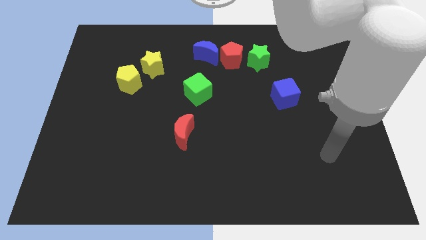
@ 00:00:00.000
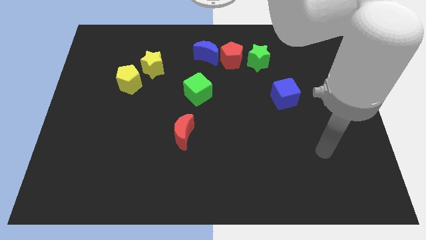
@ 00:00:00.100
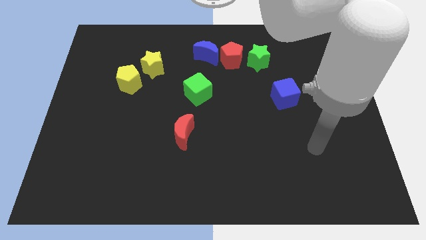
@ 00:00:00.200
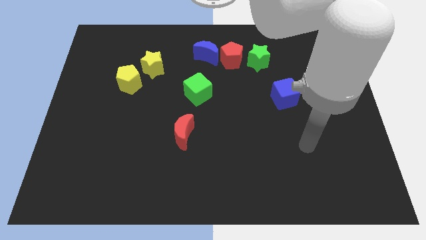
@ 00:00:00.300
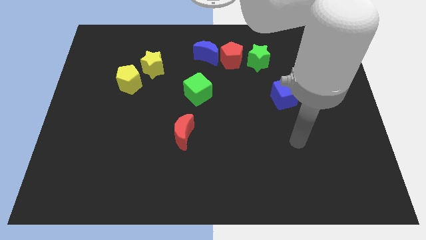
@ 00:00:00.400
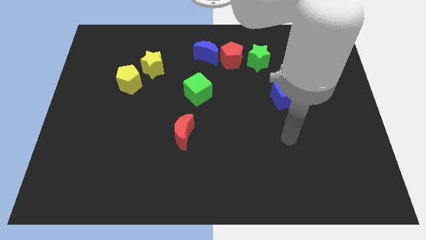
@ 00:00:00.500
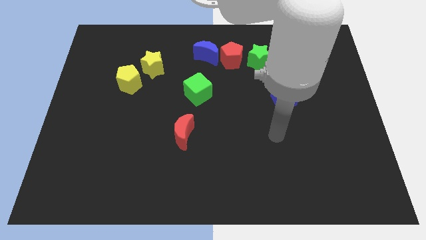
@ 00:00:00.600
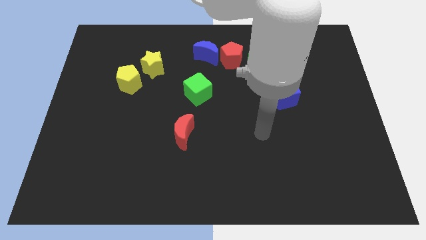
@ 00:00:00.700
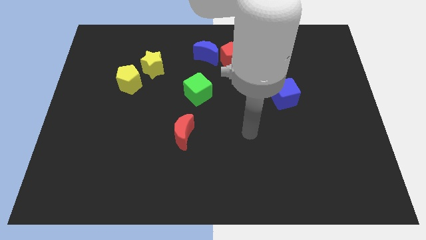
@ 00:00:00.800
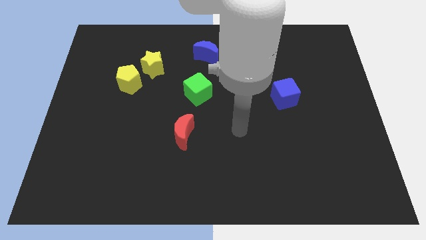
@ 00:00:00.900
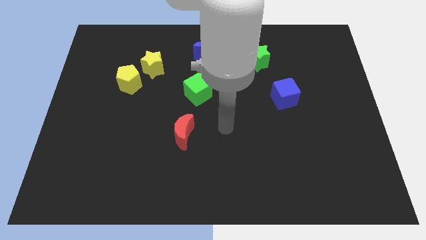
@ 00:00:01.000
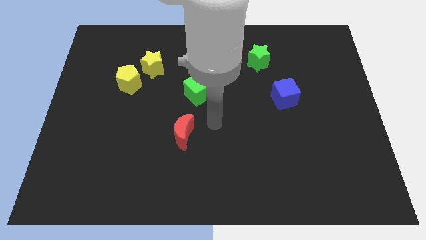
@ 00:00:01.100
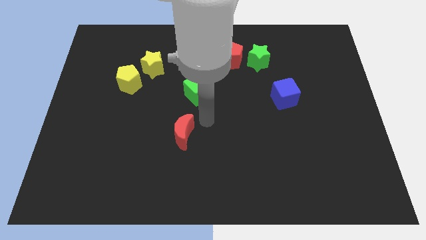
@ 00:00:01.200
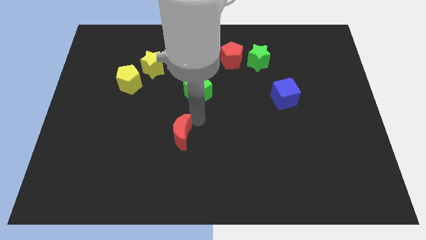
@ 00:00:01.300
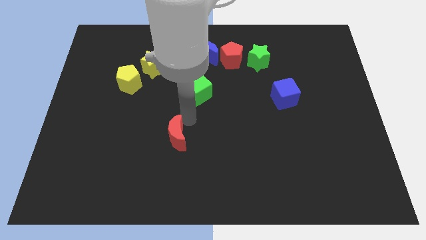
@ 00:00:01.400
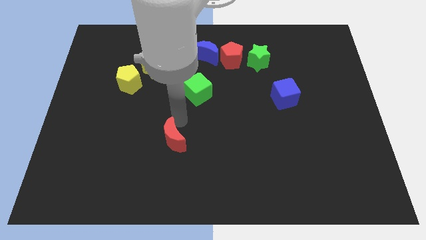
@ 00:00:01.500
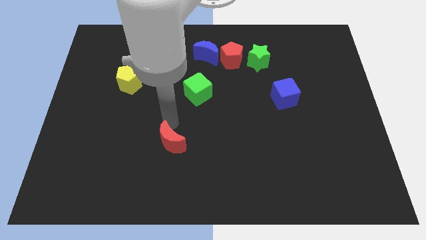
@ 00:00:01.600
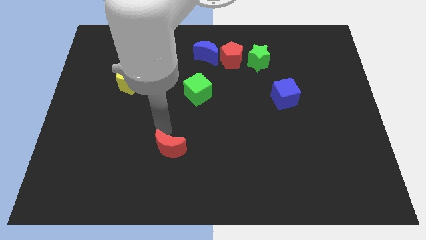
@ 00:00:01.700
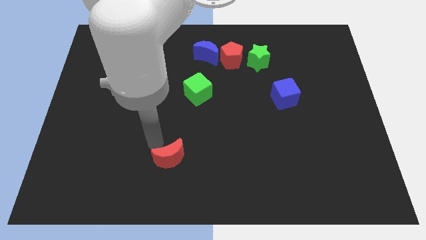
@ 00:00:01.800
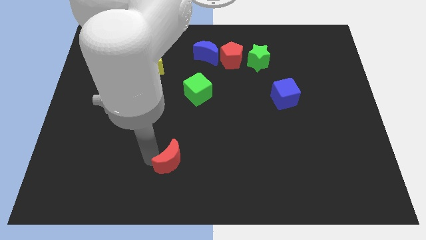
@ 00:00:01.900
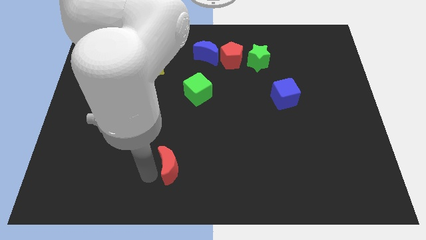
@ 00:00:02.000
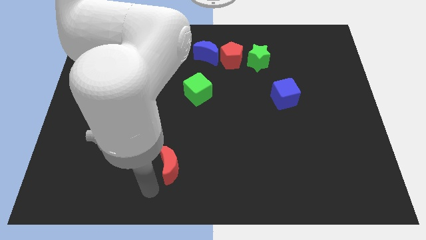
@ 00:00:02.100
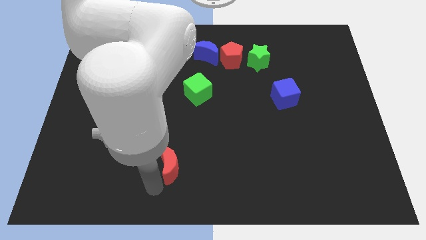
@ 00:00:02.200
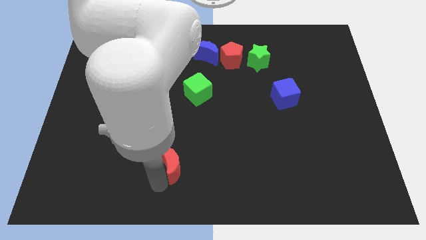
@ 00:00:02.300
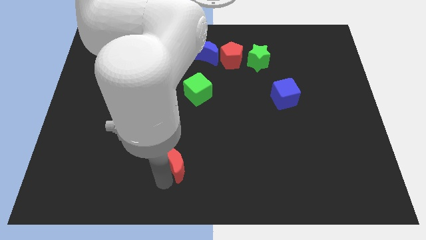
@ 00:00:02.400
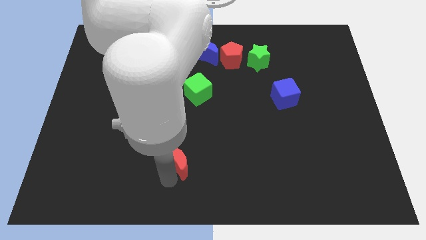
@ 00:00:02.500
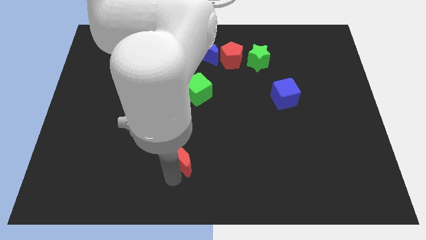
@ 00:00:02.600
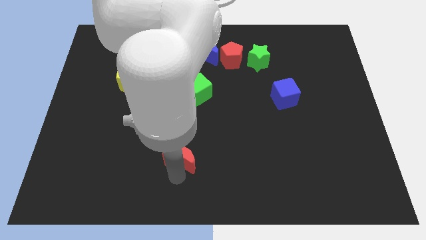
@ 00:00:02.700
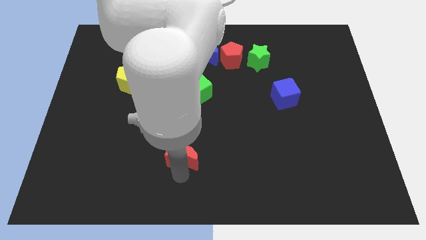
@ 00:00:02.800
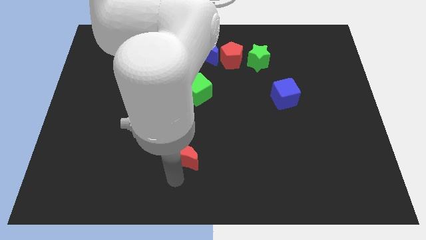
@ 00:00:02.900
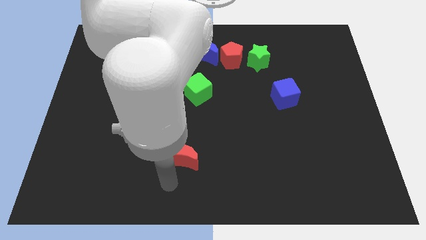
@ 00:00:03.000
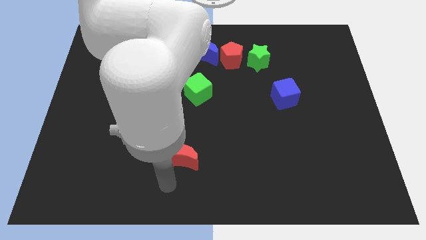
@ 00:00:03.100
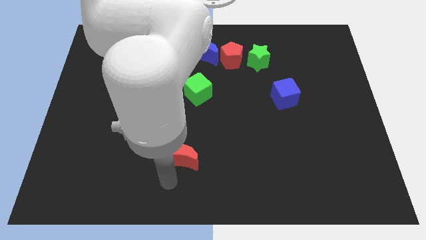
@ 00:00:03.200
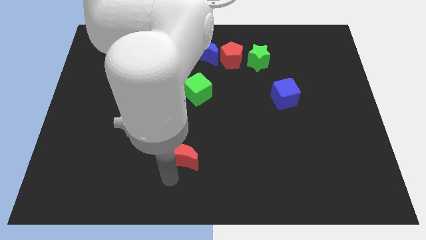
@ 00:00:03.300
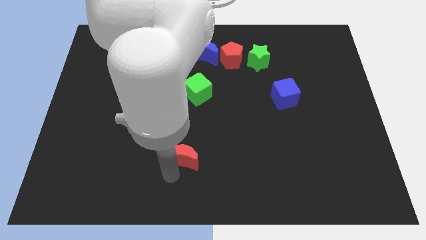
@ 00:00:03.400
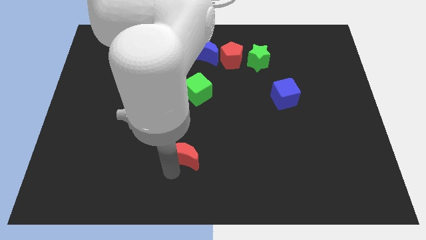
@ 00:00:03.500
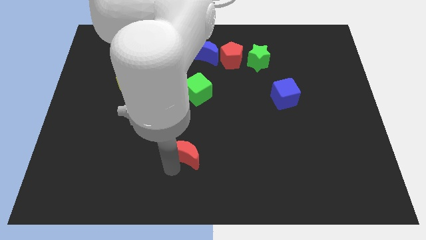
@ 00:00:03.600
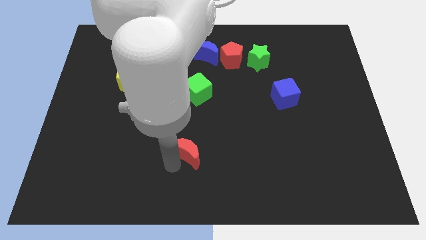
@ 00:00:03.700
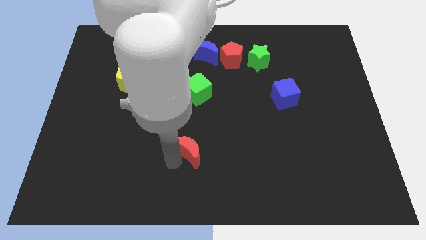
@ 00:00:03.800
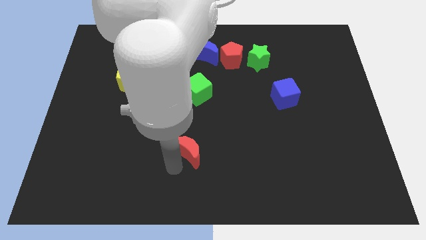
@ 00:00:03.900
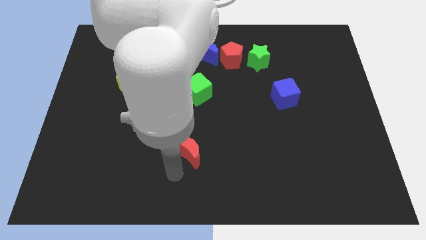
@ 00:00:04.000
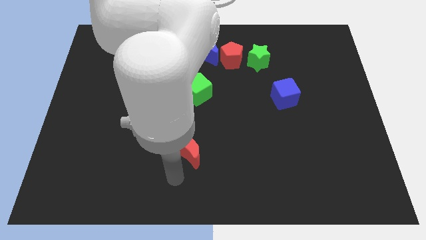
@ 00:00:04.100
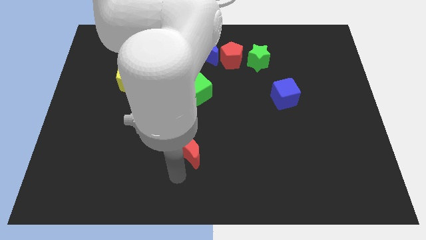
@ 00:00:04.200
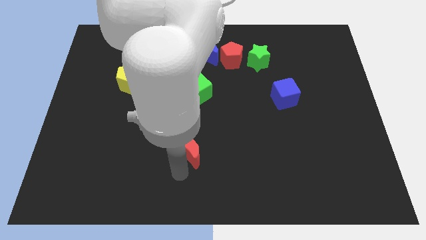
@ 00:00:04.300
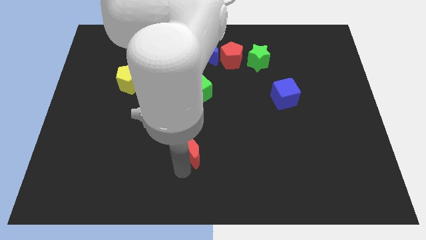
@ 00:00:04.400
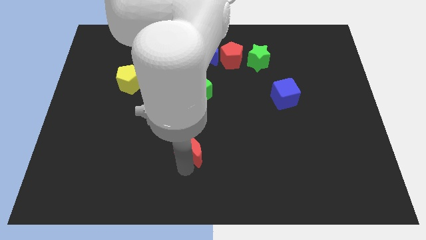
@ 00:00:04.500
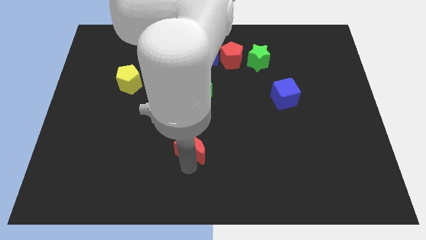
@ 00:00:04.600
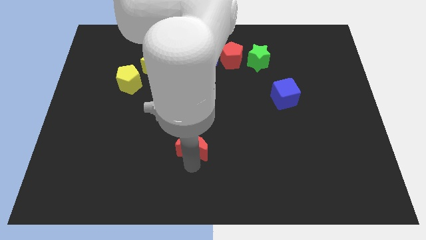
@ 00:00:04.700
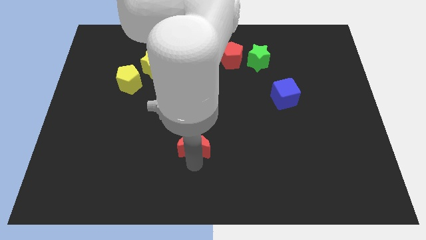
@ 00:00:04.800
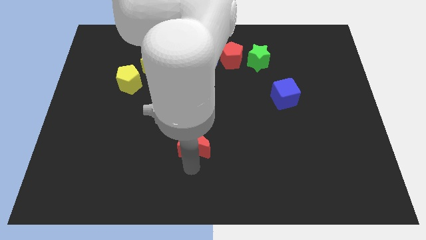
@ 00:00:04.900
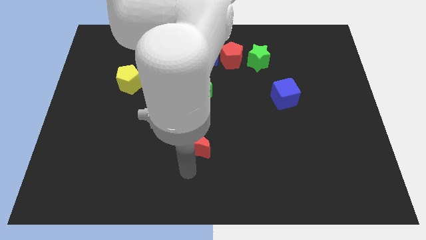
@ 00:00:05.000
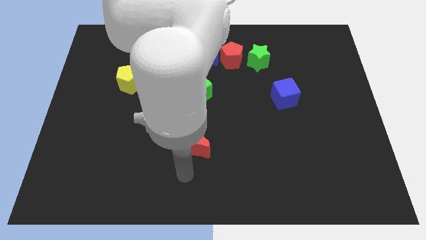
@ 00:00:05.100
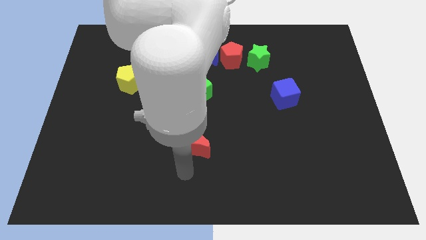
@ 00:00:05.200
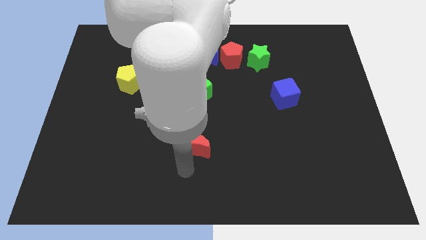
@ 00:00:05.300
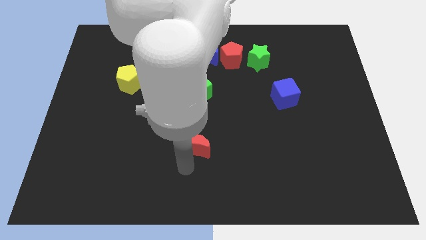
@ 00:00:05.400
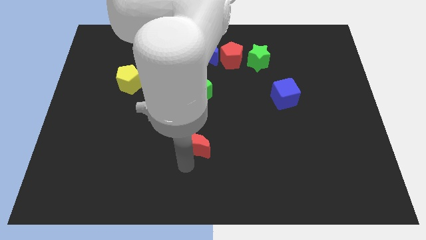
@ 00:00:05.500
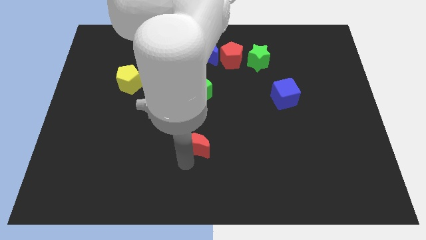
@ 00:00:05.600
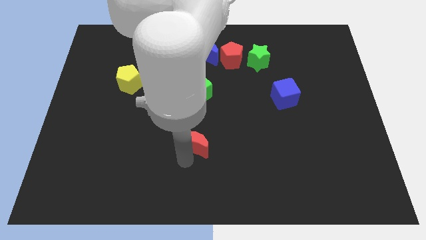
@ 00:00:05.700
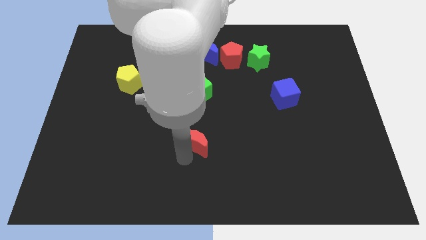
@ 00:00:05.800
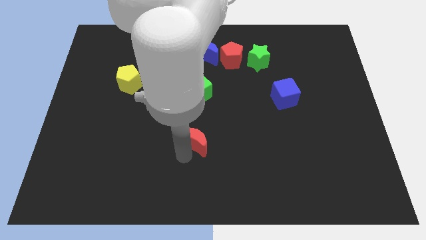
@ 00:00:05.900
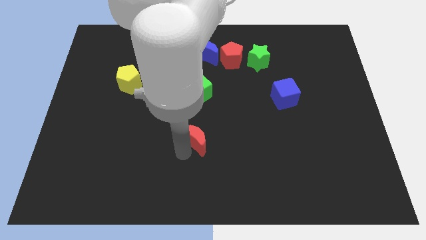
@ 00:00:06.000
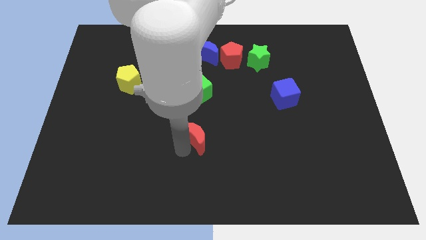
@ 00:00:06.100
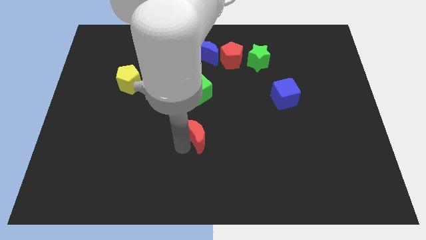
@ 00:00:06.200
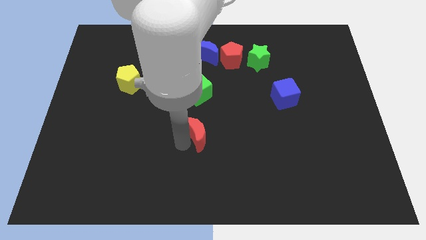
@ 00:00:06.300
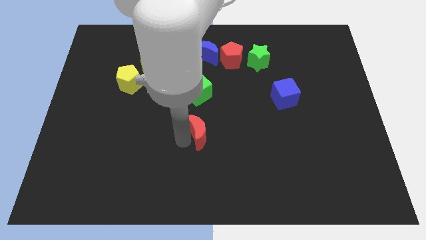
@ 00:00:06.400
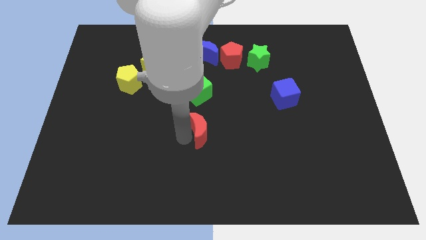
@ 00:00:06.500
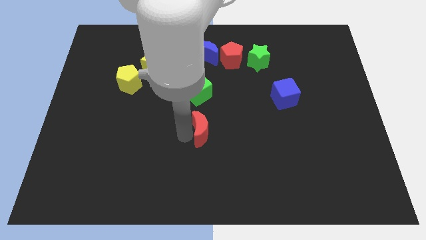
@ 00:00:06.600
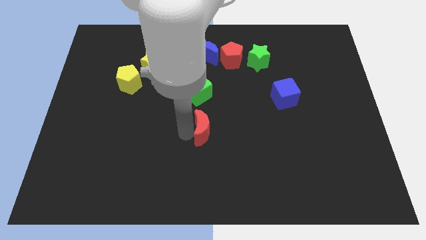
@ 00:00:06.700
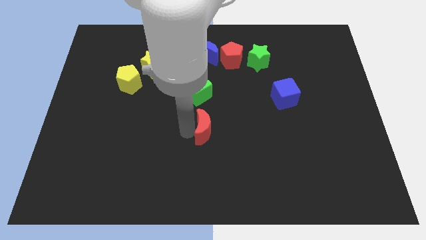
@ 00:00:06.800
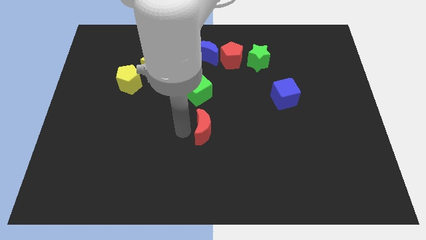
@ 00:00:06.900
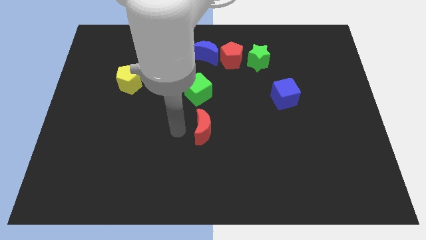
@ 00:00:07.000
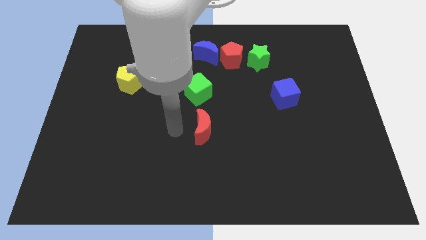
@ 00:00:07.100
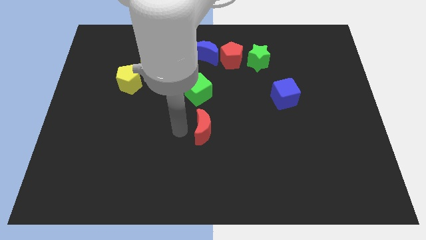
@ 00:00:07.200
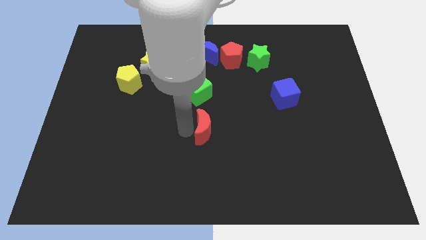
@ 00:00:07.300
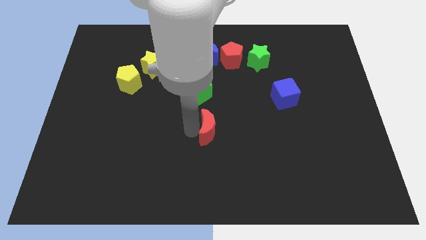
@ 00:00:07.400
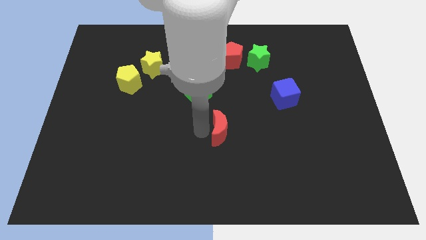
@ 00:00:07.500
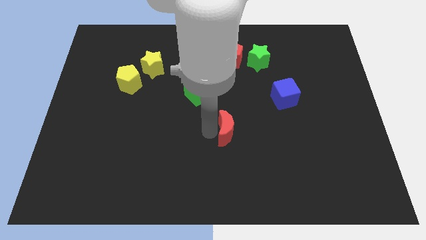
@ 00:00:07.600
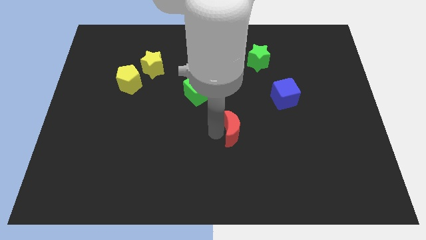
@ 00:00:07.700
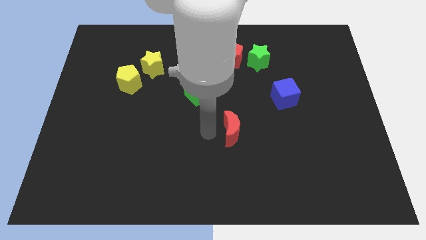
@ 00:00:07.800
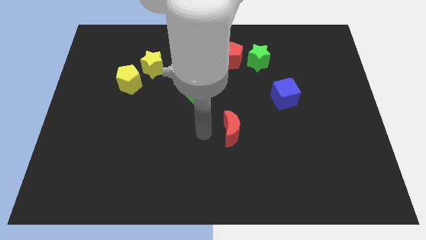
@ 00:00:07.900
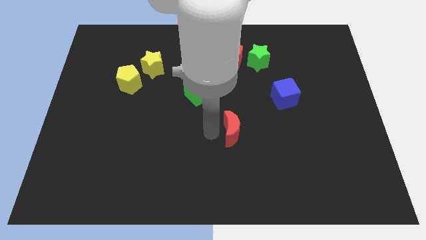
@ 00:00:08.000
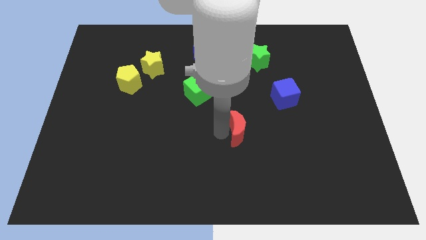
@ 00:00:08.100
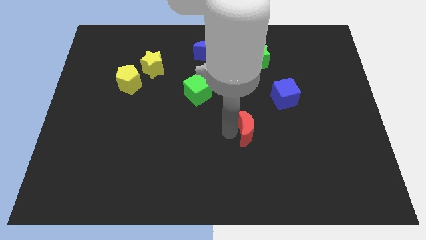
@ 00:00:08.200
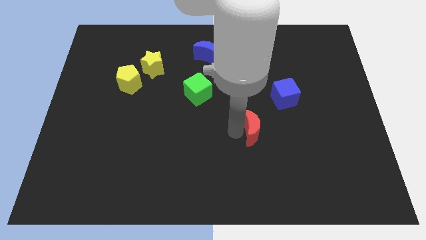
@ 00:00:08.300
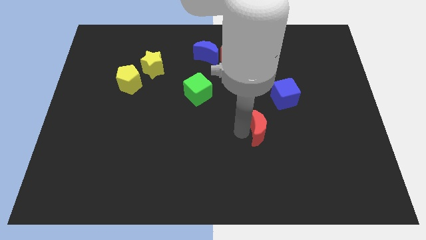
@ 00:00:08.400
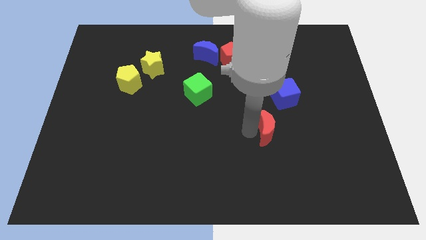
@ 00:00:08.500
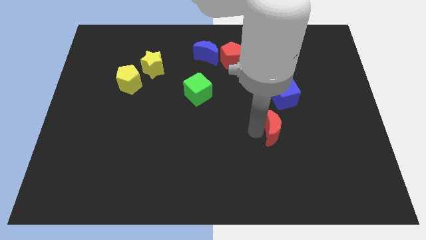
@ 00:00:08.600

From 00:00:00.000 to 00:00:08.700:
move the red moon right
